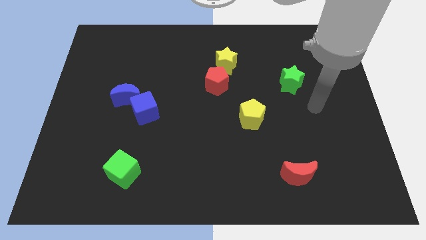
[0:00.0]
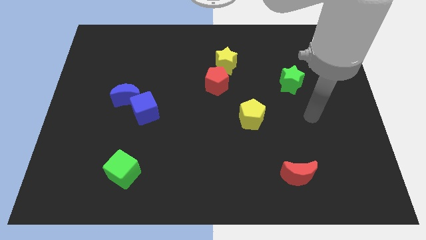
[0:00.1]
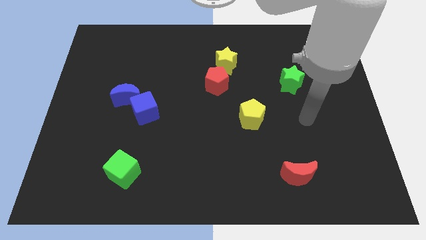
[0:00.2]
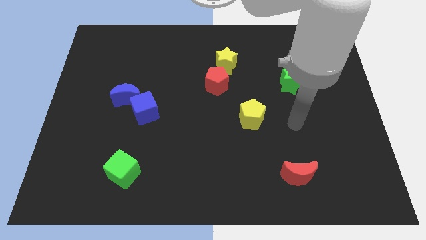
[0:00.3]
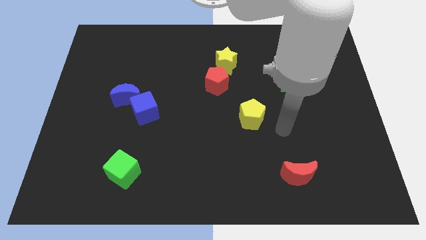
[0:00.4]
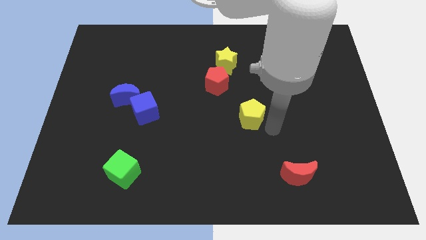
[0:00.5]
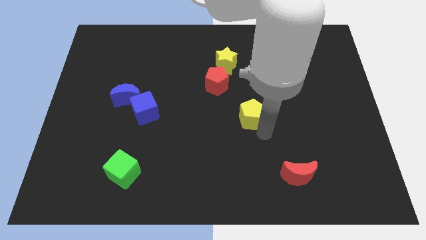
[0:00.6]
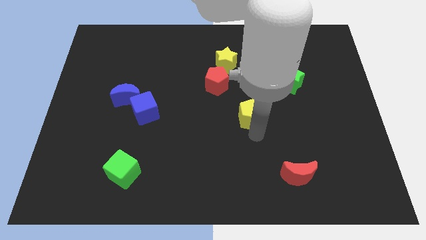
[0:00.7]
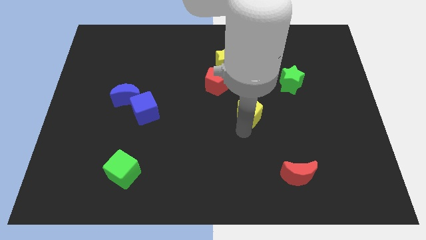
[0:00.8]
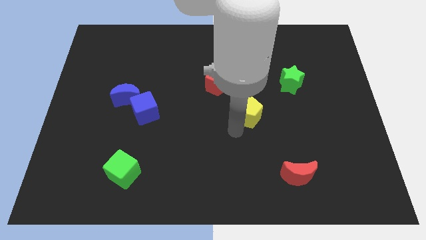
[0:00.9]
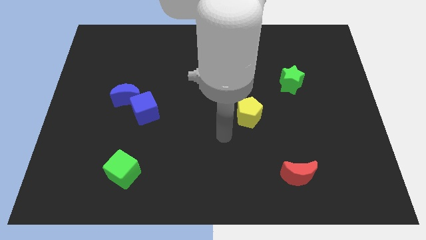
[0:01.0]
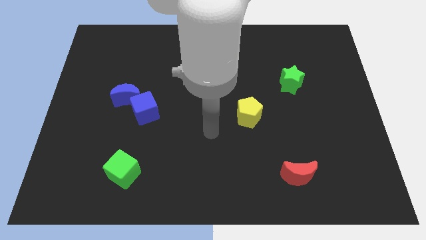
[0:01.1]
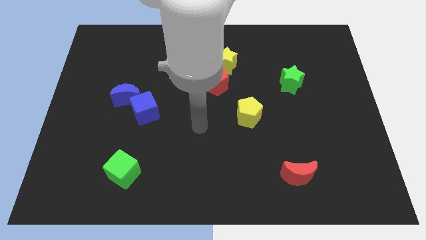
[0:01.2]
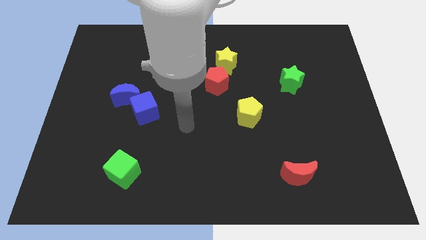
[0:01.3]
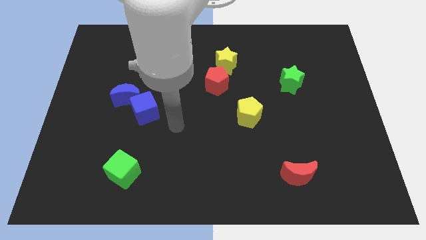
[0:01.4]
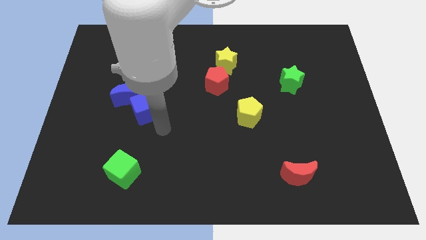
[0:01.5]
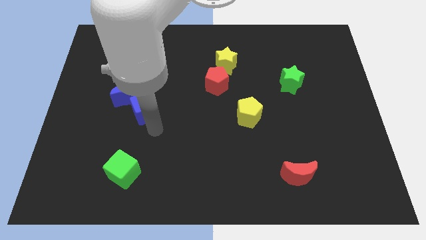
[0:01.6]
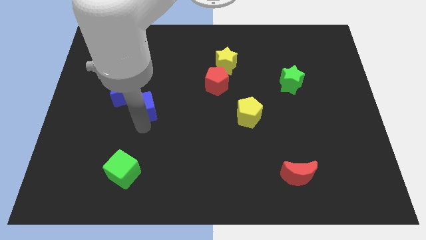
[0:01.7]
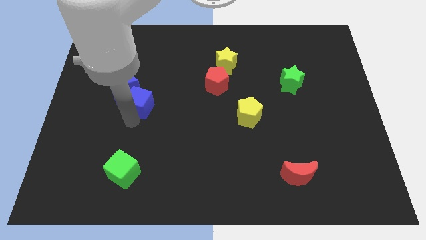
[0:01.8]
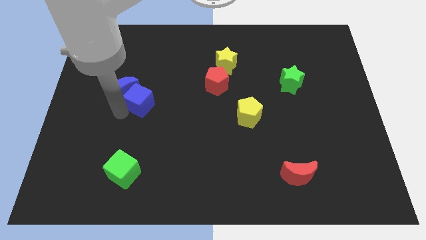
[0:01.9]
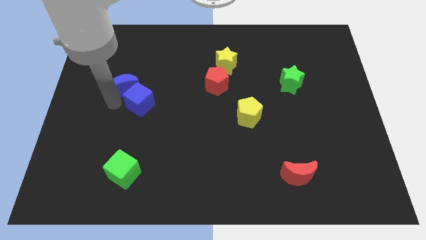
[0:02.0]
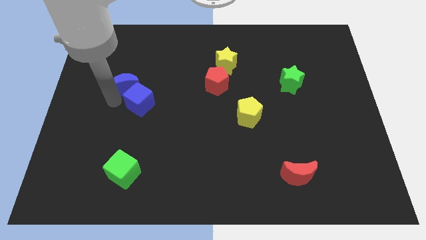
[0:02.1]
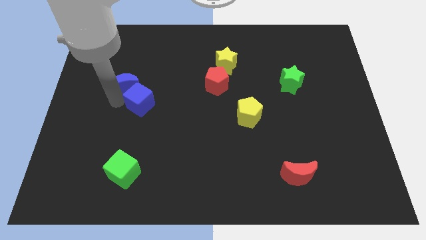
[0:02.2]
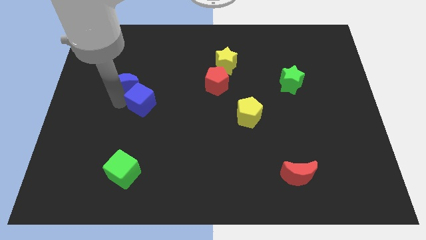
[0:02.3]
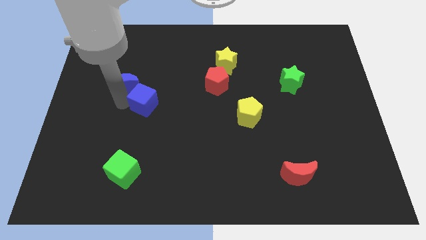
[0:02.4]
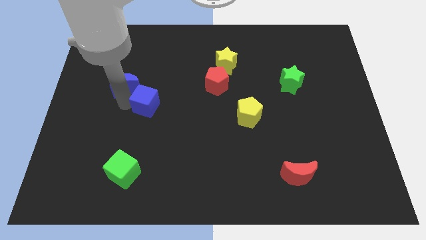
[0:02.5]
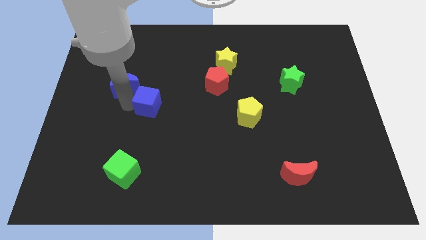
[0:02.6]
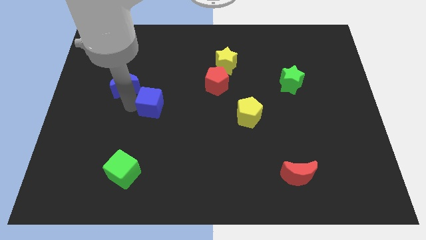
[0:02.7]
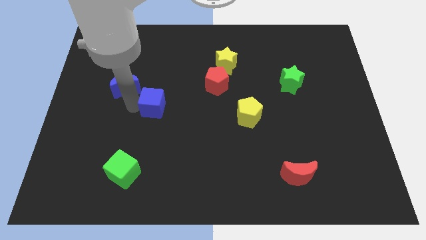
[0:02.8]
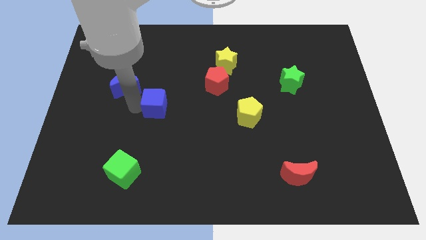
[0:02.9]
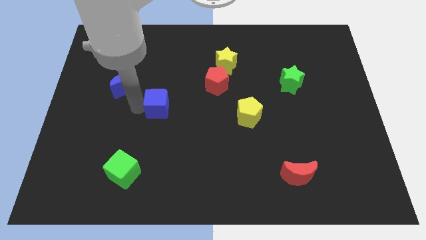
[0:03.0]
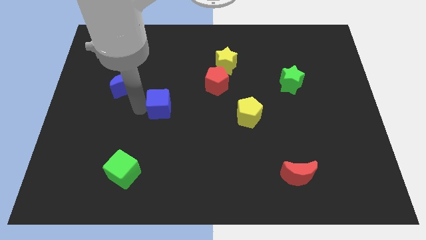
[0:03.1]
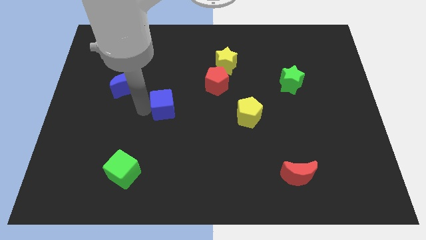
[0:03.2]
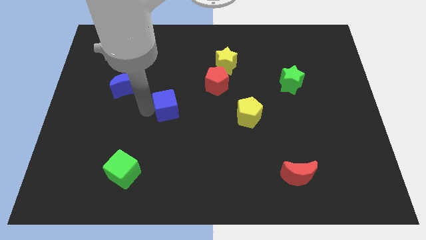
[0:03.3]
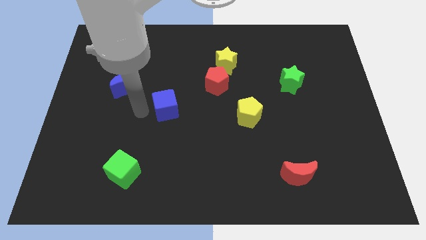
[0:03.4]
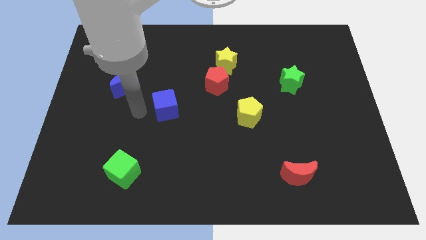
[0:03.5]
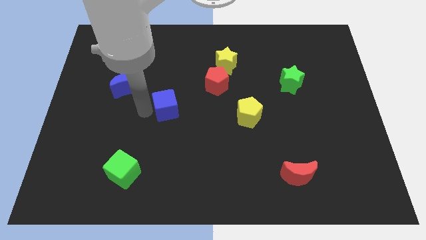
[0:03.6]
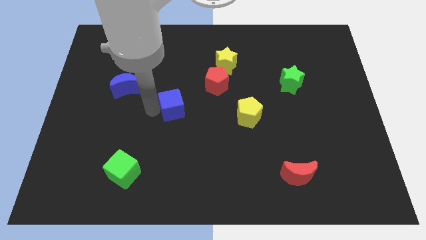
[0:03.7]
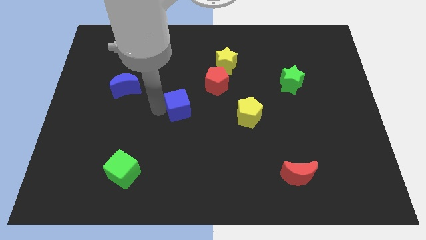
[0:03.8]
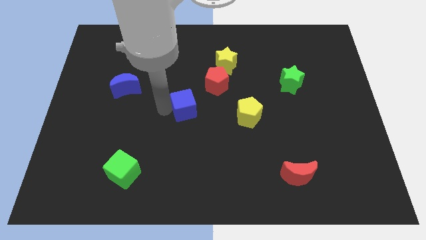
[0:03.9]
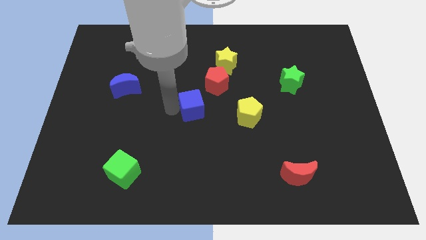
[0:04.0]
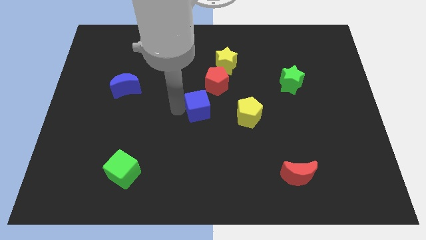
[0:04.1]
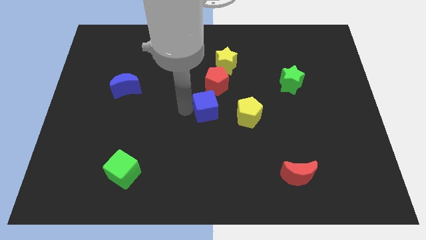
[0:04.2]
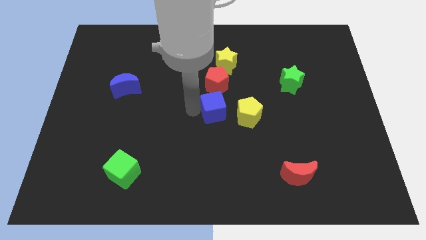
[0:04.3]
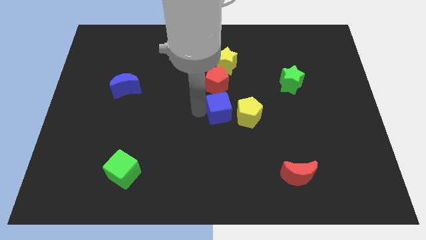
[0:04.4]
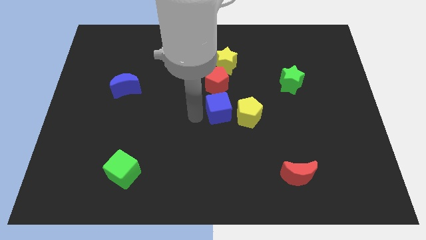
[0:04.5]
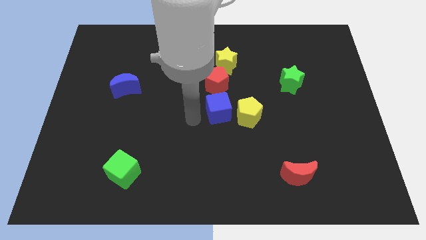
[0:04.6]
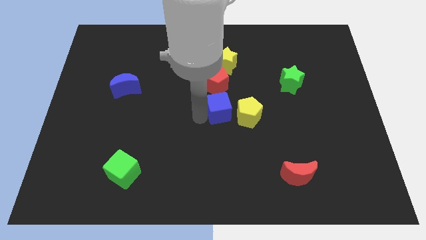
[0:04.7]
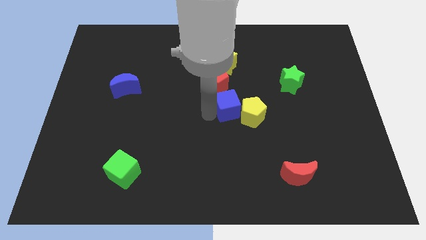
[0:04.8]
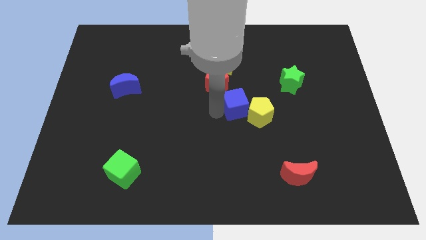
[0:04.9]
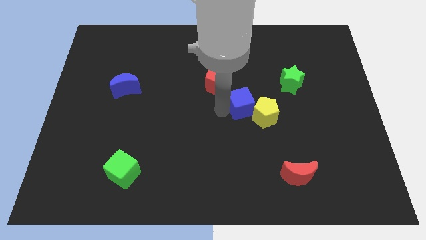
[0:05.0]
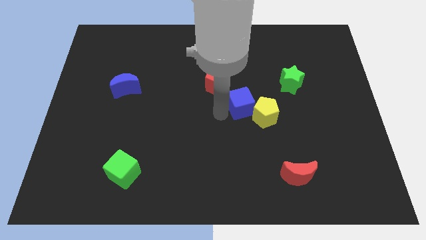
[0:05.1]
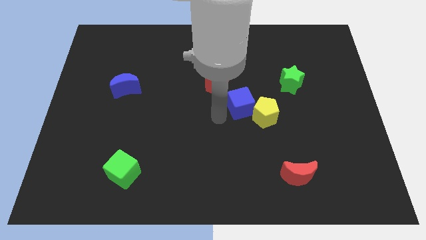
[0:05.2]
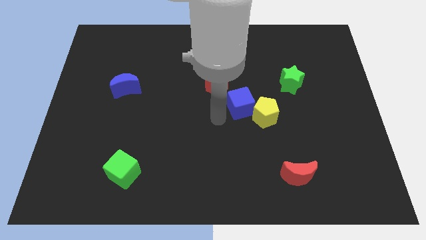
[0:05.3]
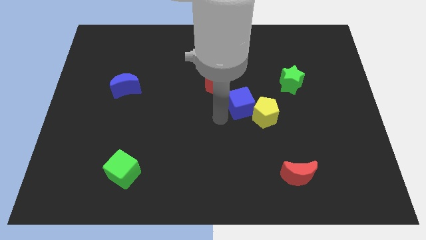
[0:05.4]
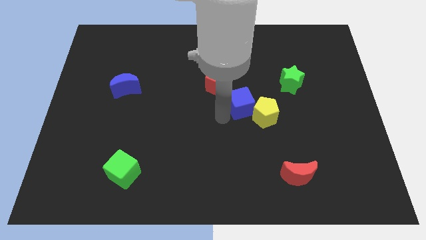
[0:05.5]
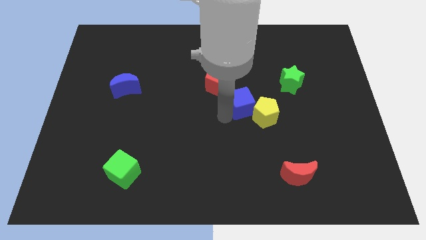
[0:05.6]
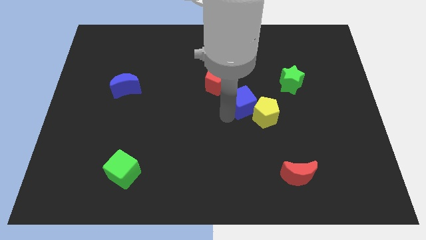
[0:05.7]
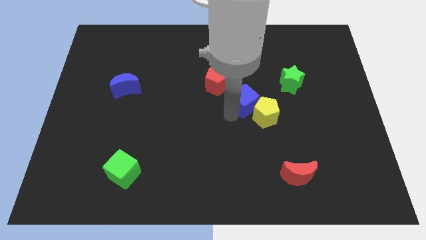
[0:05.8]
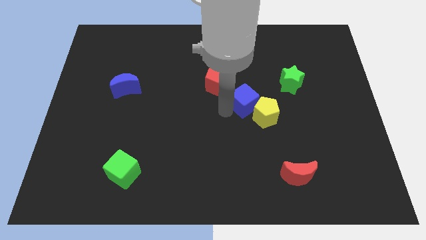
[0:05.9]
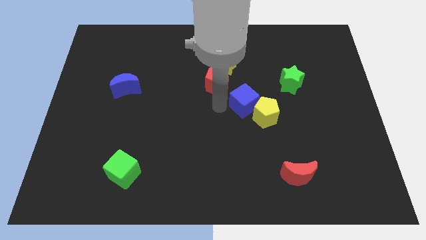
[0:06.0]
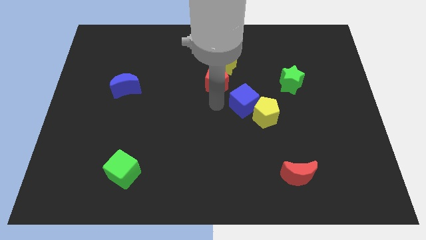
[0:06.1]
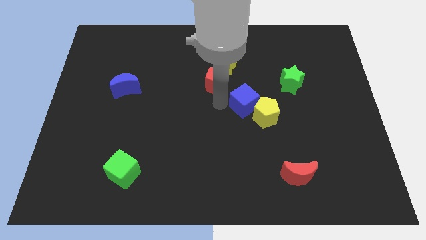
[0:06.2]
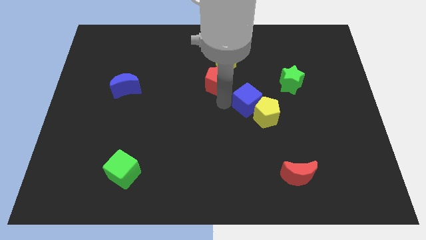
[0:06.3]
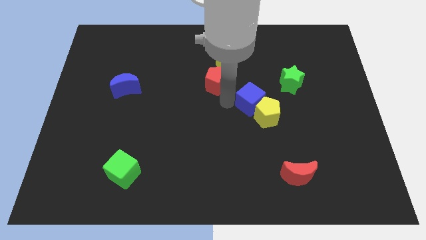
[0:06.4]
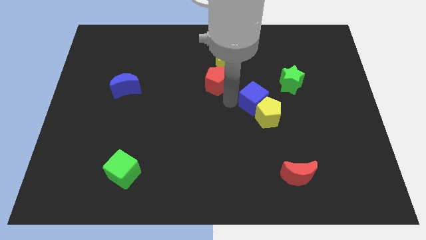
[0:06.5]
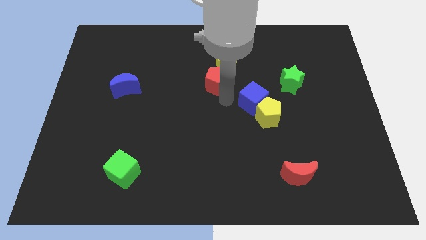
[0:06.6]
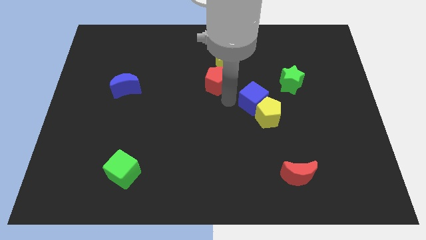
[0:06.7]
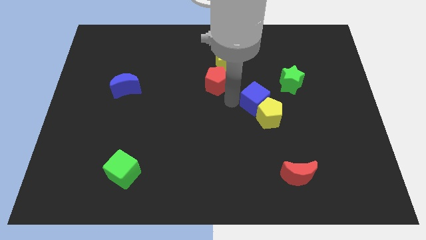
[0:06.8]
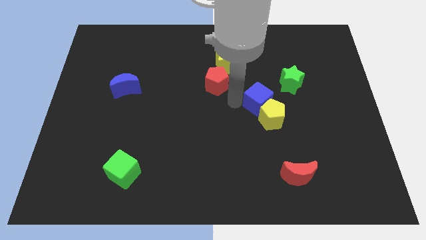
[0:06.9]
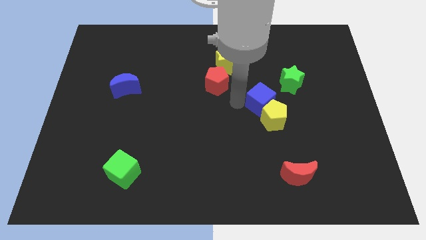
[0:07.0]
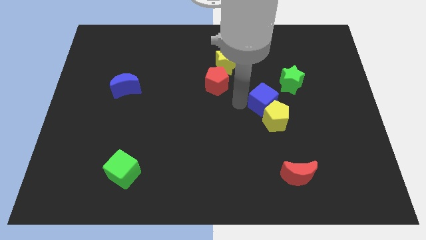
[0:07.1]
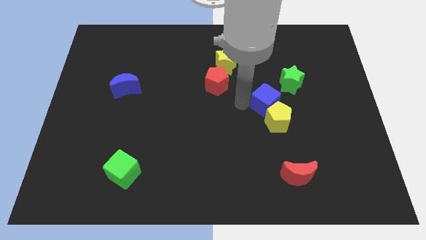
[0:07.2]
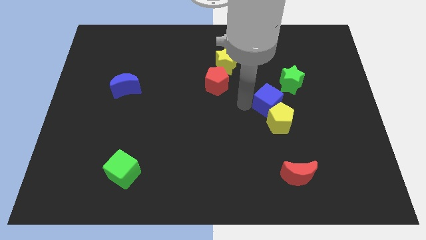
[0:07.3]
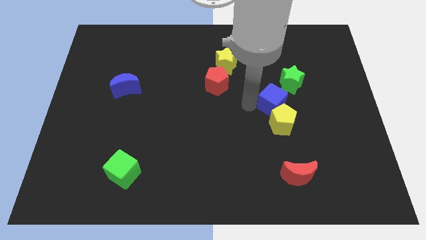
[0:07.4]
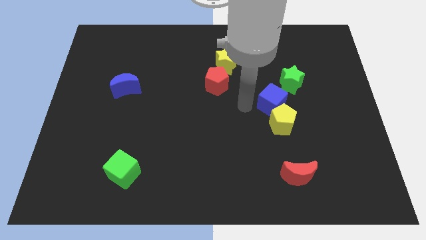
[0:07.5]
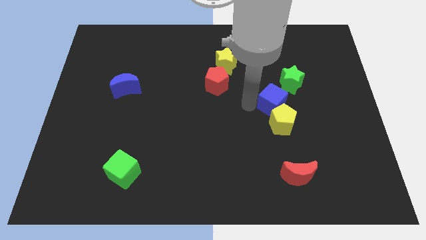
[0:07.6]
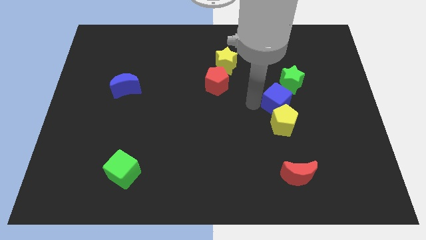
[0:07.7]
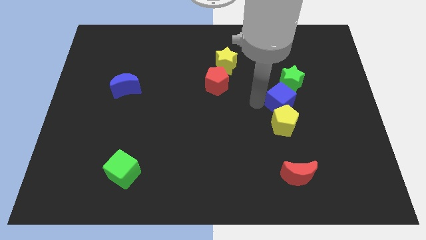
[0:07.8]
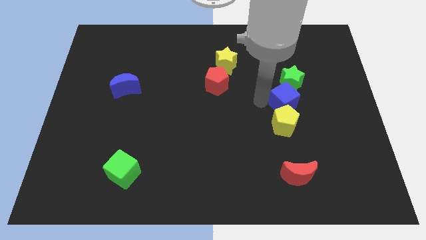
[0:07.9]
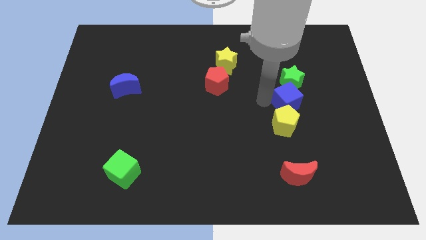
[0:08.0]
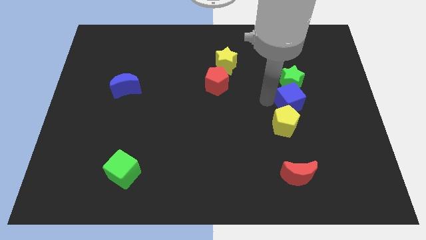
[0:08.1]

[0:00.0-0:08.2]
push the blue cube diagonally down and to the right of the green star
